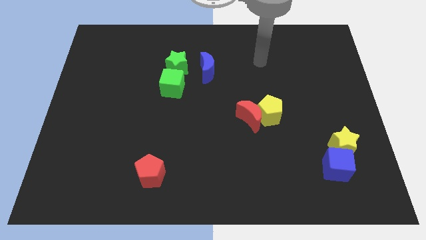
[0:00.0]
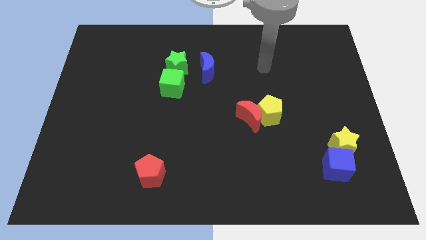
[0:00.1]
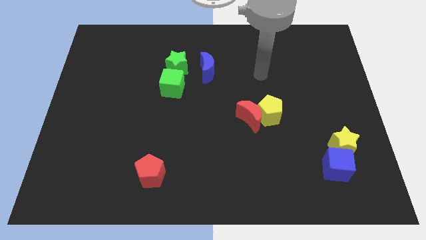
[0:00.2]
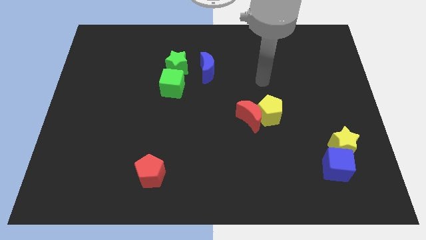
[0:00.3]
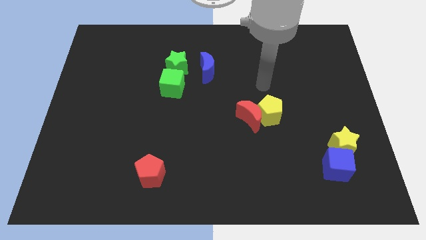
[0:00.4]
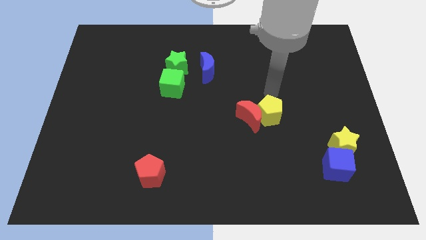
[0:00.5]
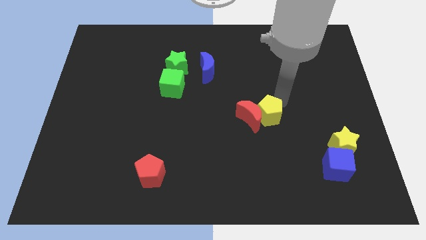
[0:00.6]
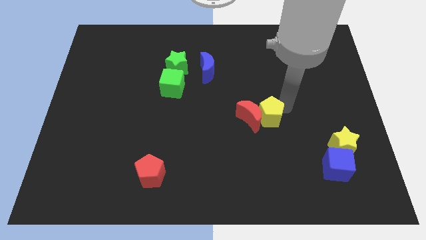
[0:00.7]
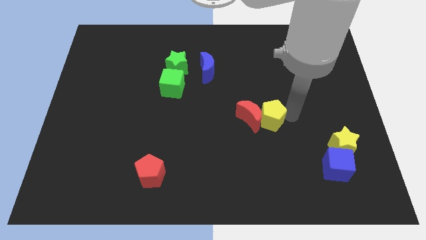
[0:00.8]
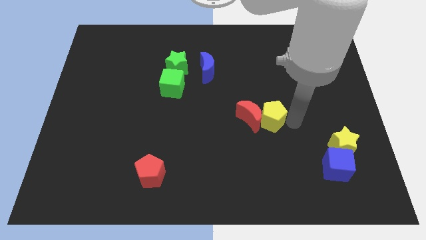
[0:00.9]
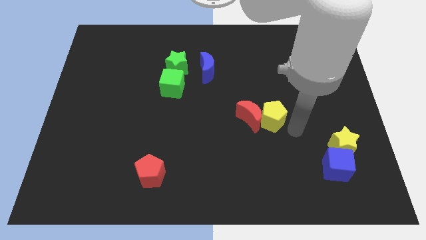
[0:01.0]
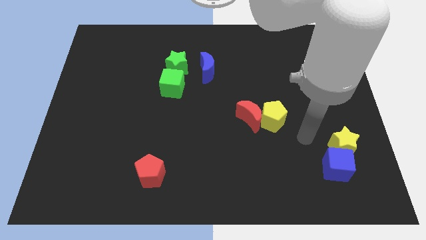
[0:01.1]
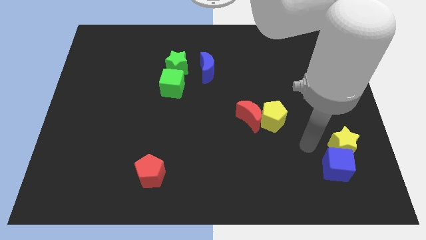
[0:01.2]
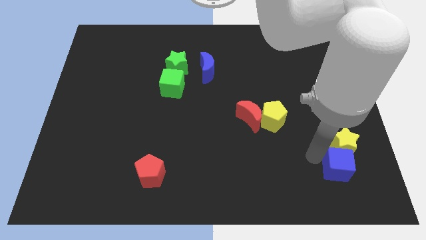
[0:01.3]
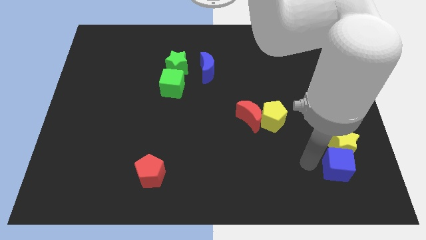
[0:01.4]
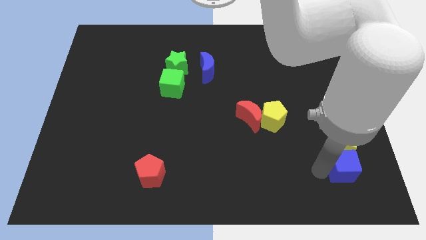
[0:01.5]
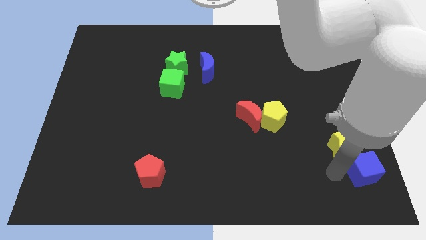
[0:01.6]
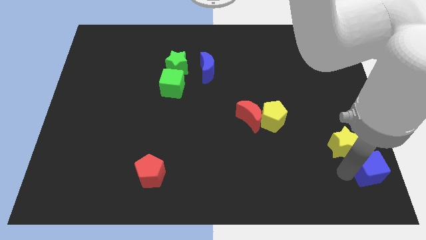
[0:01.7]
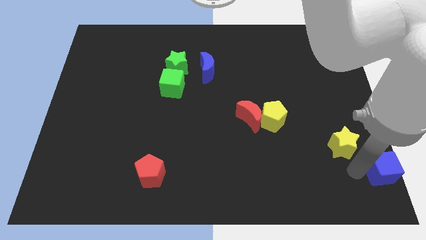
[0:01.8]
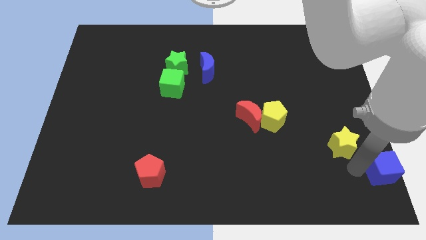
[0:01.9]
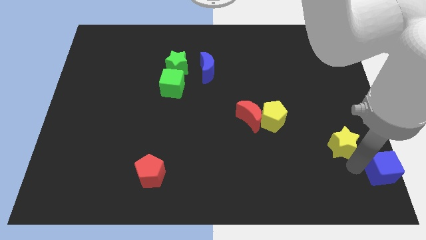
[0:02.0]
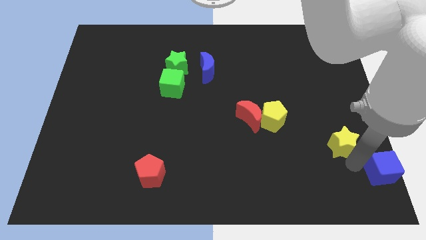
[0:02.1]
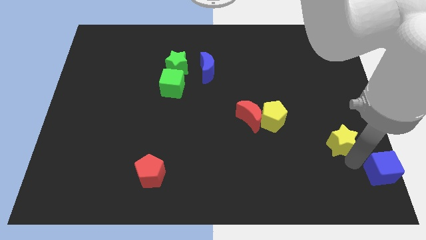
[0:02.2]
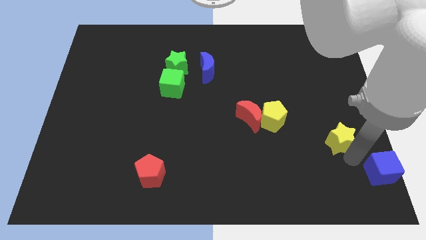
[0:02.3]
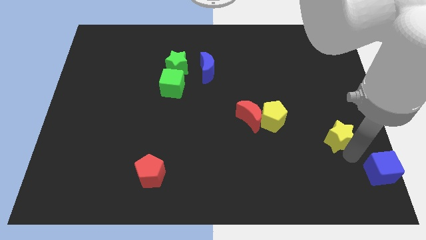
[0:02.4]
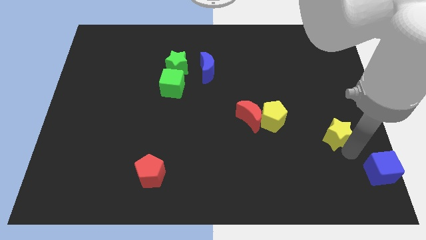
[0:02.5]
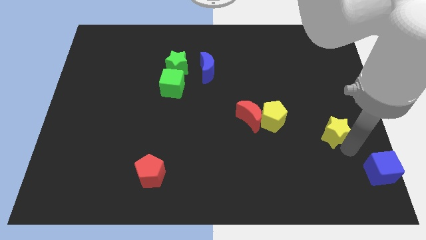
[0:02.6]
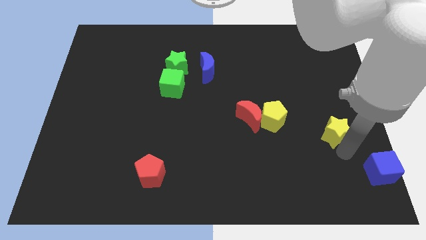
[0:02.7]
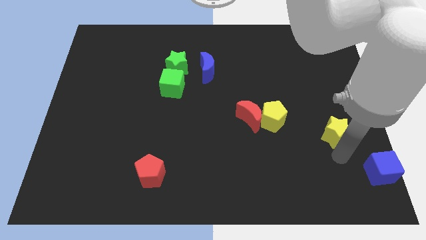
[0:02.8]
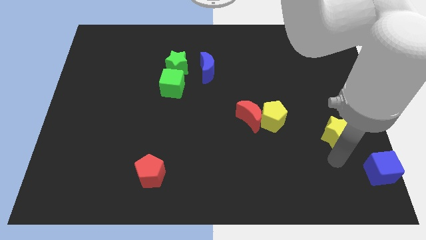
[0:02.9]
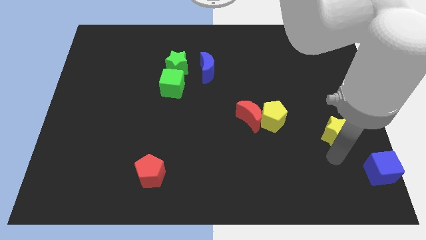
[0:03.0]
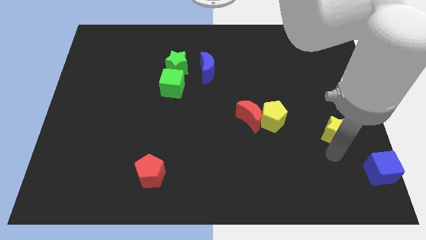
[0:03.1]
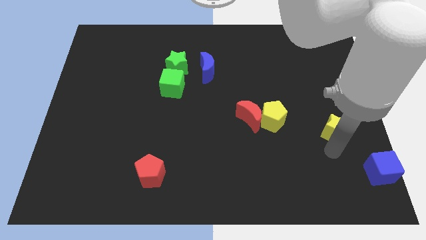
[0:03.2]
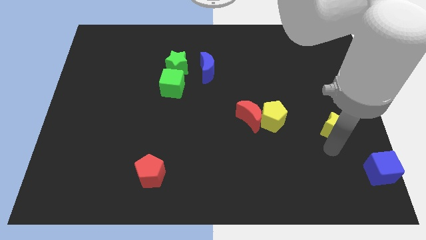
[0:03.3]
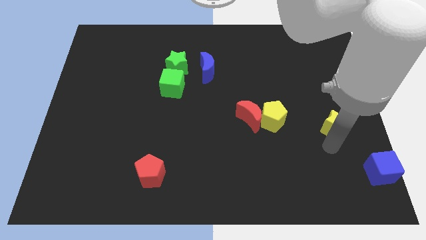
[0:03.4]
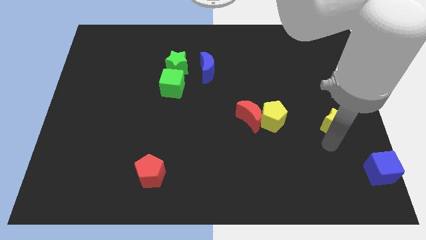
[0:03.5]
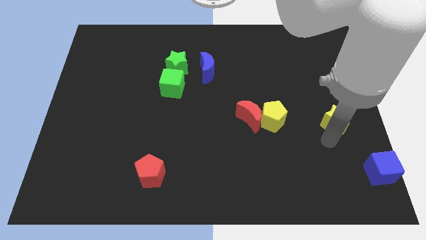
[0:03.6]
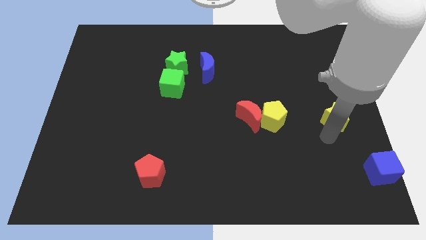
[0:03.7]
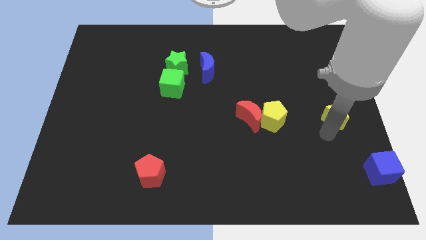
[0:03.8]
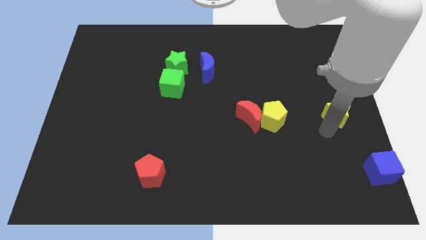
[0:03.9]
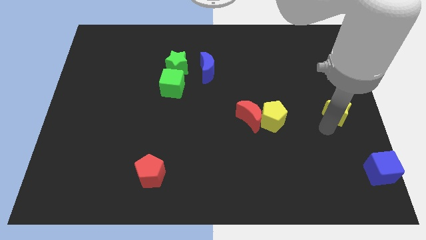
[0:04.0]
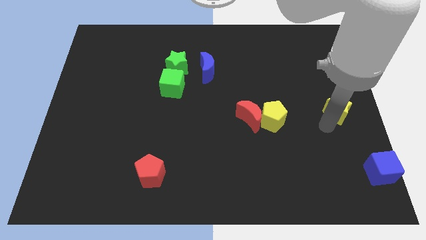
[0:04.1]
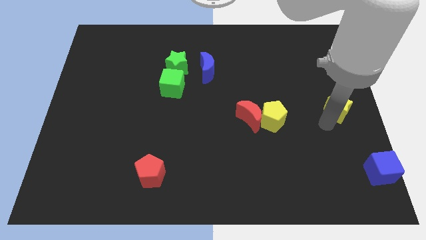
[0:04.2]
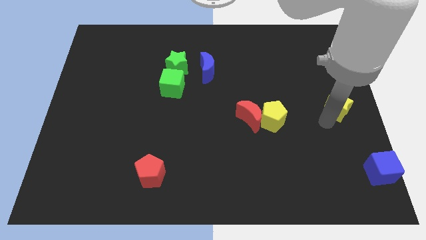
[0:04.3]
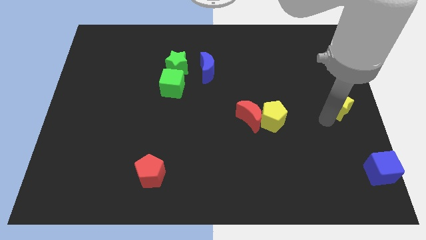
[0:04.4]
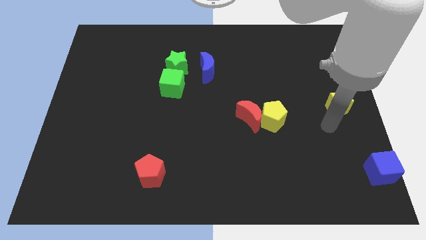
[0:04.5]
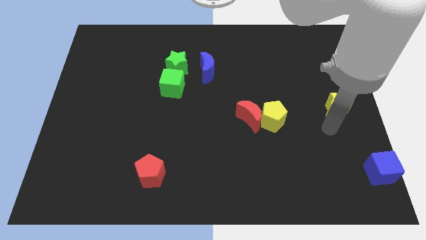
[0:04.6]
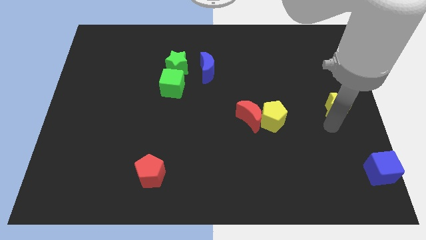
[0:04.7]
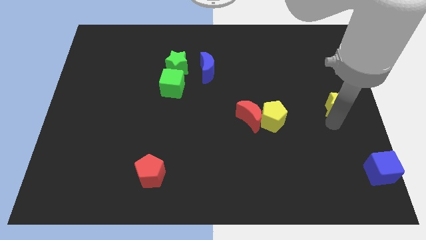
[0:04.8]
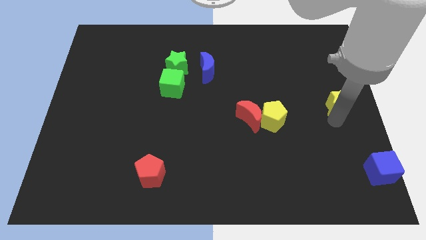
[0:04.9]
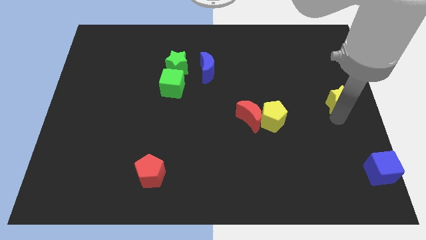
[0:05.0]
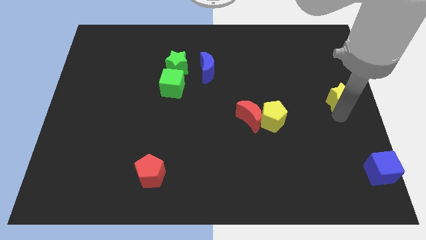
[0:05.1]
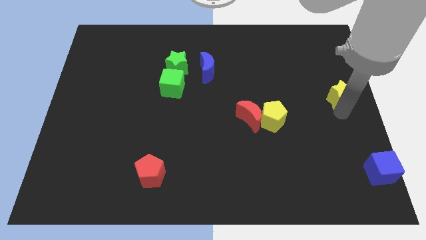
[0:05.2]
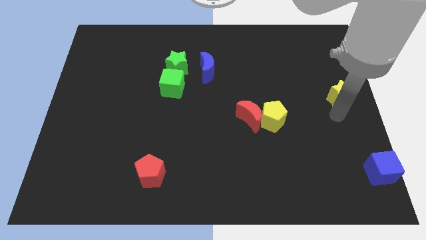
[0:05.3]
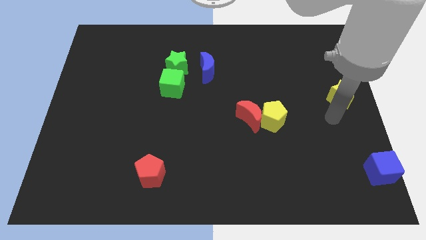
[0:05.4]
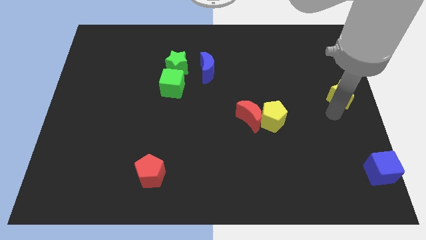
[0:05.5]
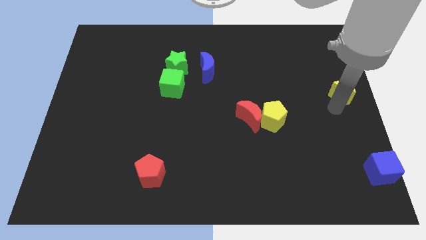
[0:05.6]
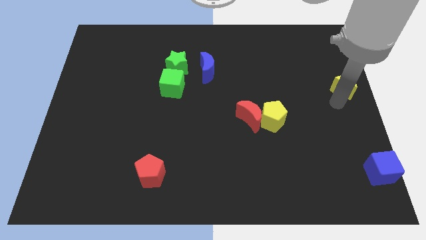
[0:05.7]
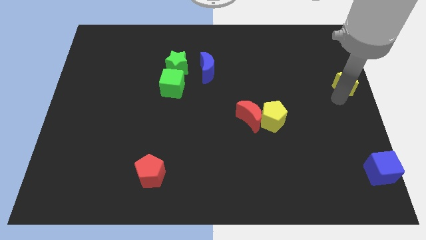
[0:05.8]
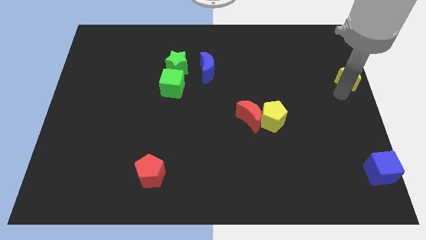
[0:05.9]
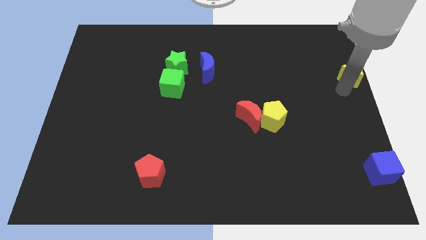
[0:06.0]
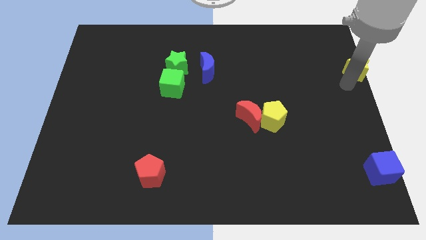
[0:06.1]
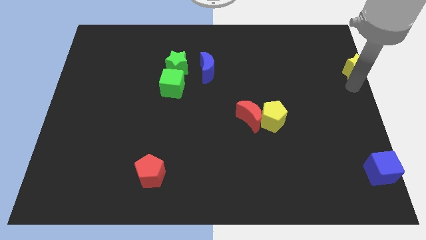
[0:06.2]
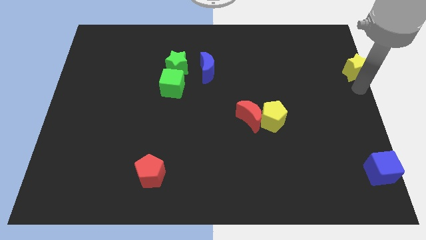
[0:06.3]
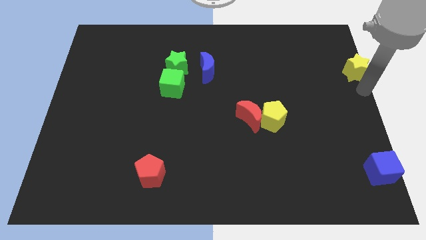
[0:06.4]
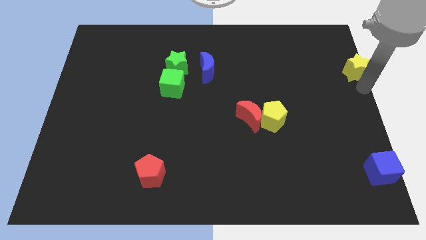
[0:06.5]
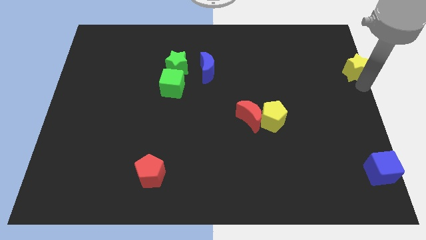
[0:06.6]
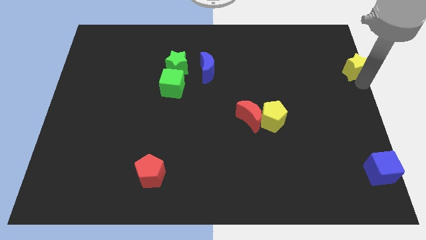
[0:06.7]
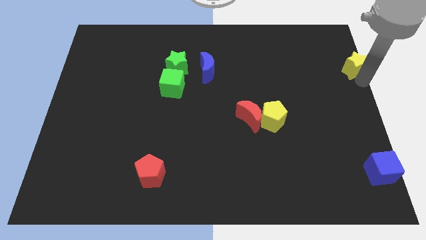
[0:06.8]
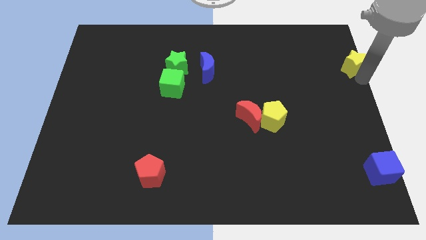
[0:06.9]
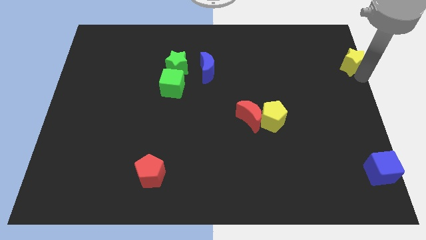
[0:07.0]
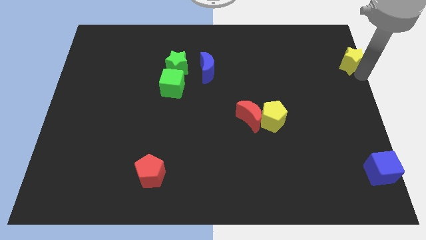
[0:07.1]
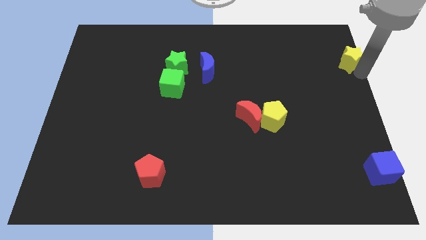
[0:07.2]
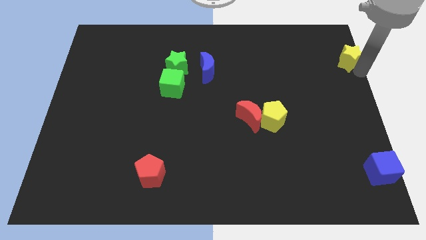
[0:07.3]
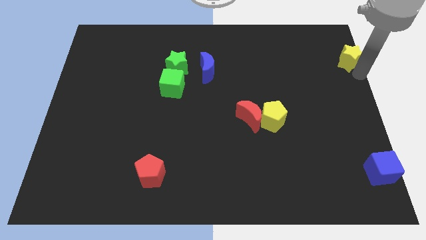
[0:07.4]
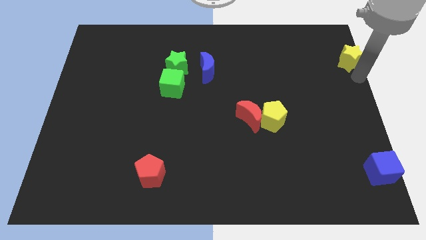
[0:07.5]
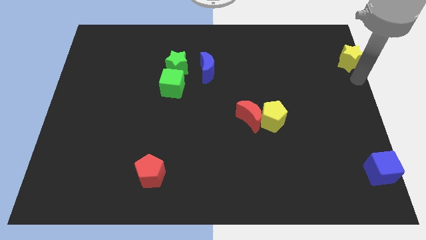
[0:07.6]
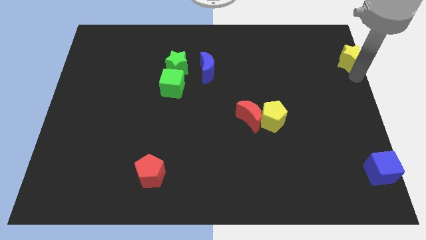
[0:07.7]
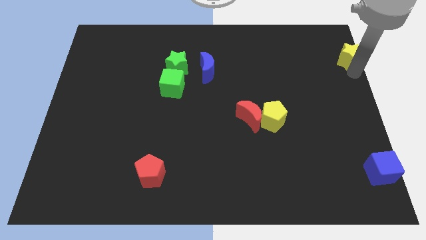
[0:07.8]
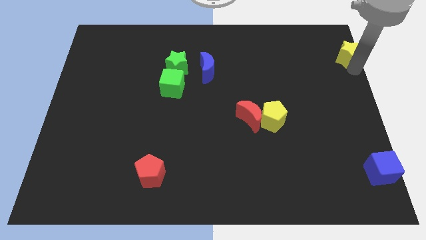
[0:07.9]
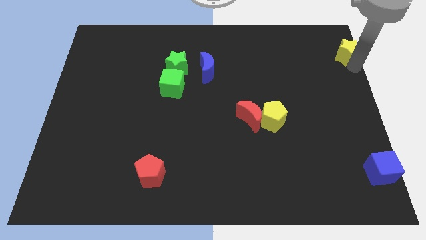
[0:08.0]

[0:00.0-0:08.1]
push the yellow star to the top right corner
